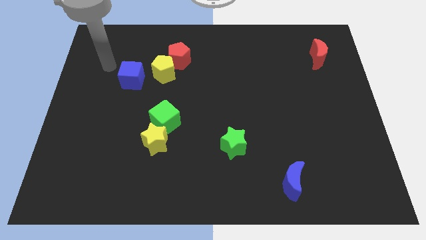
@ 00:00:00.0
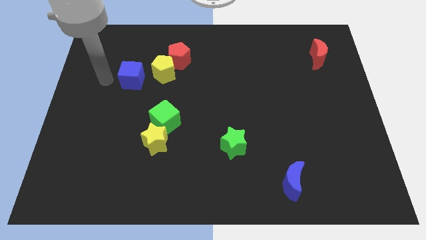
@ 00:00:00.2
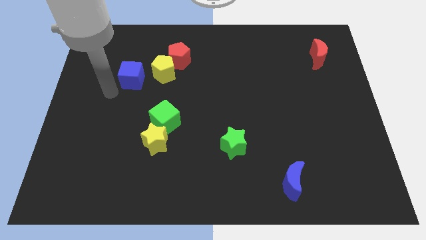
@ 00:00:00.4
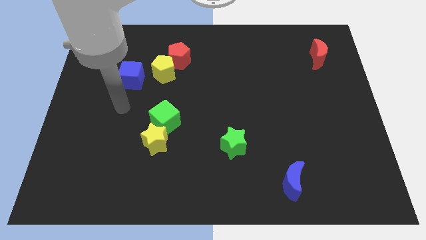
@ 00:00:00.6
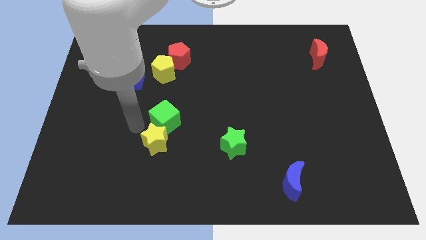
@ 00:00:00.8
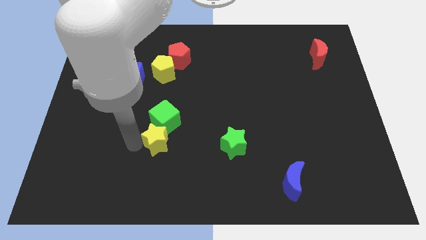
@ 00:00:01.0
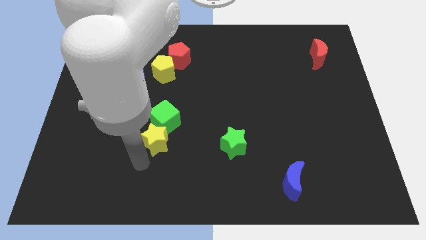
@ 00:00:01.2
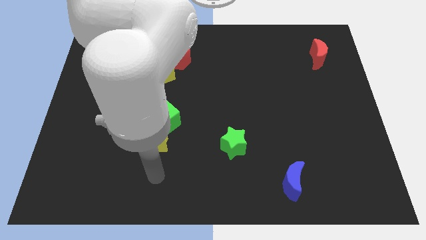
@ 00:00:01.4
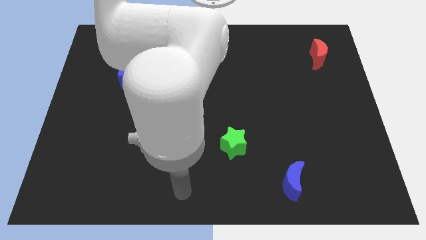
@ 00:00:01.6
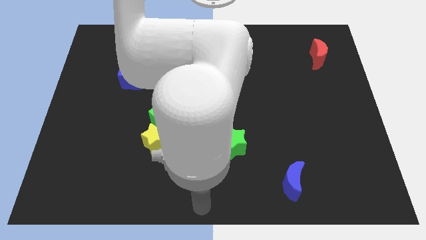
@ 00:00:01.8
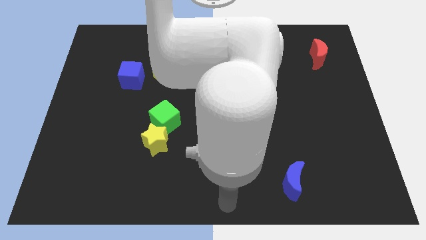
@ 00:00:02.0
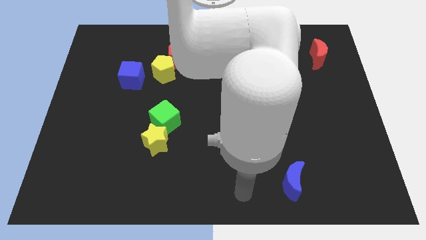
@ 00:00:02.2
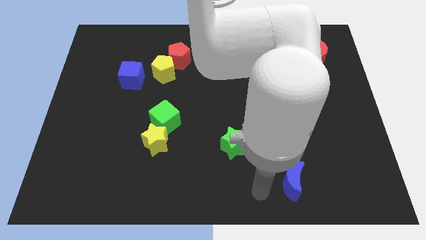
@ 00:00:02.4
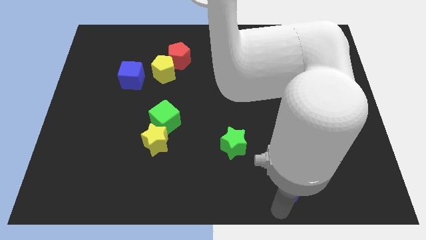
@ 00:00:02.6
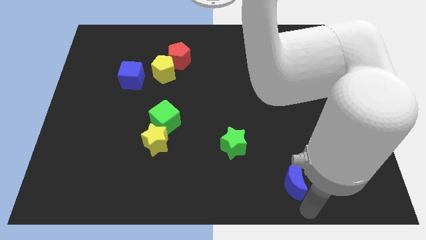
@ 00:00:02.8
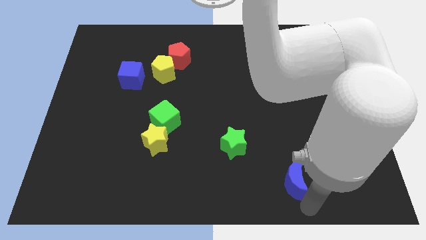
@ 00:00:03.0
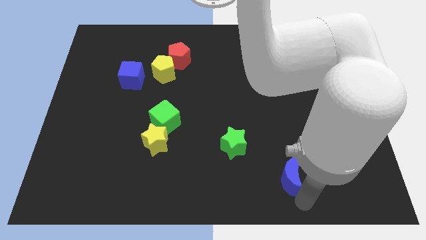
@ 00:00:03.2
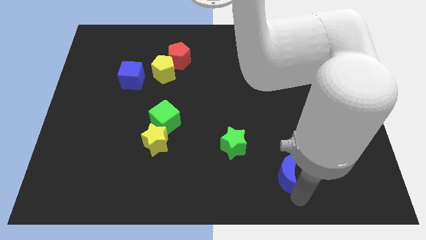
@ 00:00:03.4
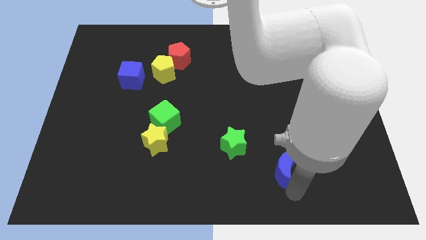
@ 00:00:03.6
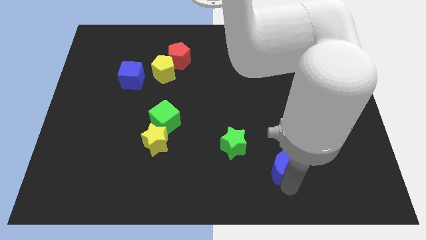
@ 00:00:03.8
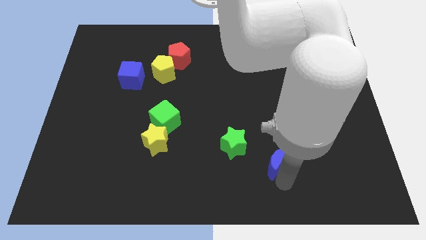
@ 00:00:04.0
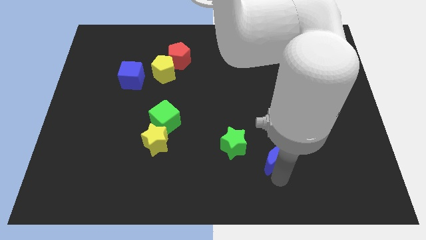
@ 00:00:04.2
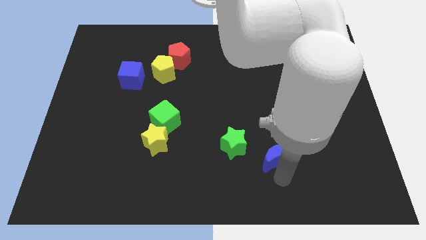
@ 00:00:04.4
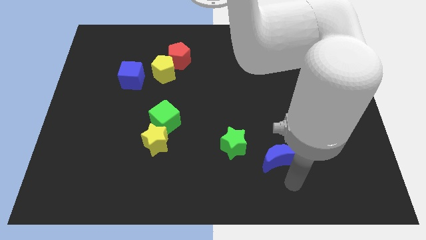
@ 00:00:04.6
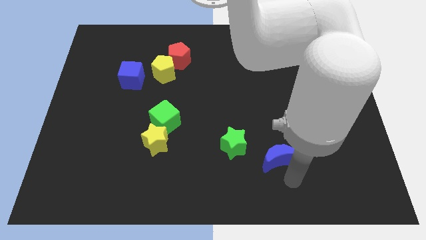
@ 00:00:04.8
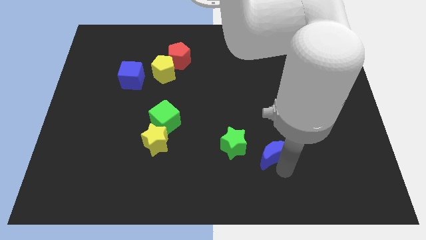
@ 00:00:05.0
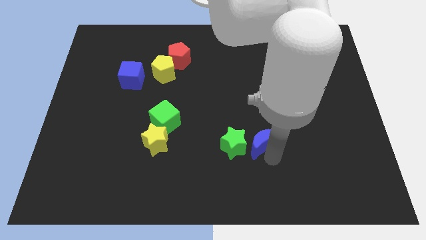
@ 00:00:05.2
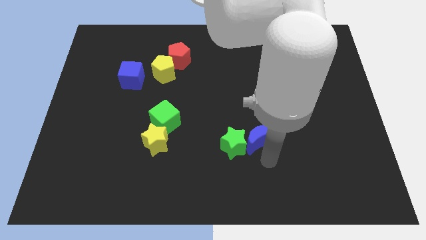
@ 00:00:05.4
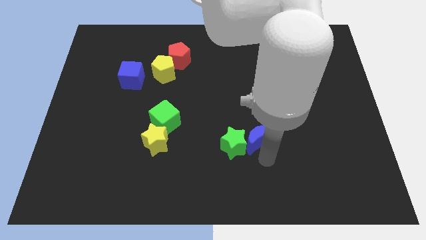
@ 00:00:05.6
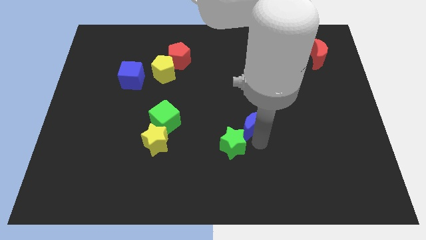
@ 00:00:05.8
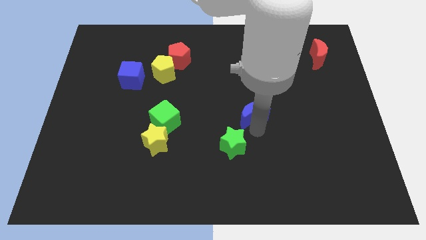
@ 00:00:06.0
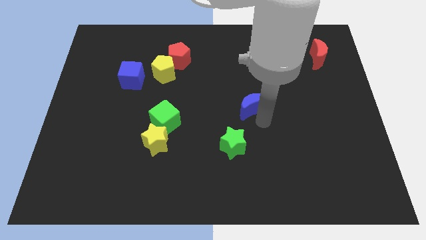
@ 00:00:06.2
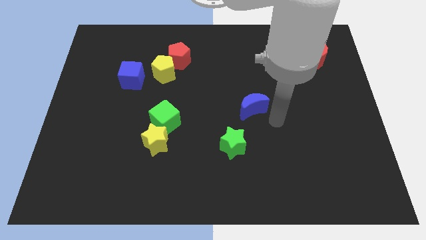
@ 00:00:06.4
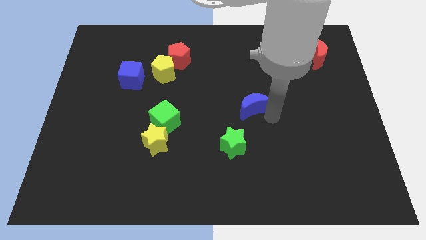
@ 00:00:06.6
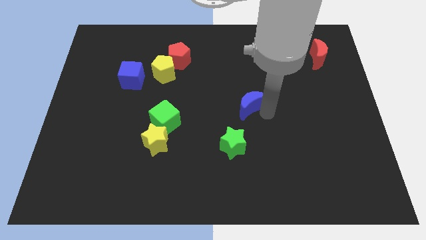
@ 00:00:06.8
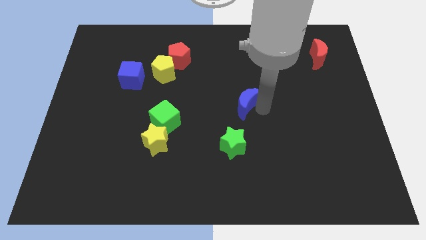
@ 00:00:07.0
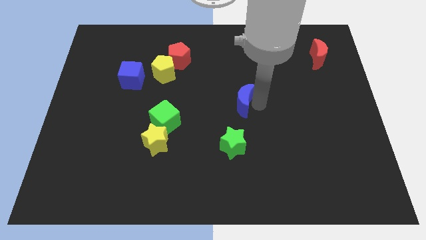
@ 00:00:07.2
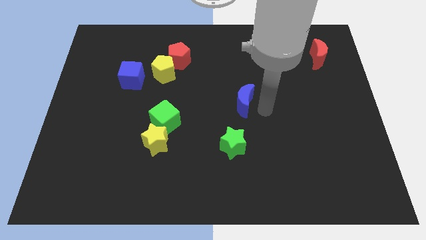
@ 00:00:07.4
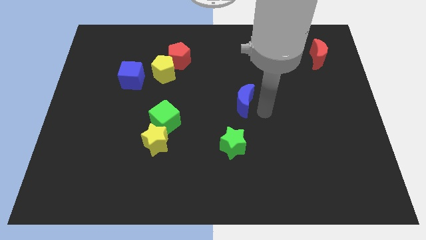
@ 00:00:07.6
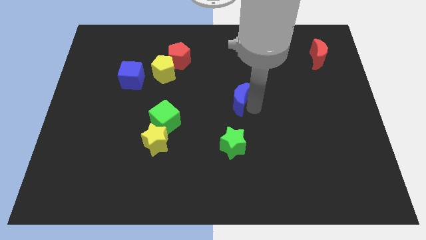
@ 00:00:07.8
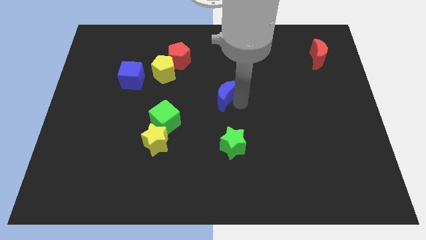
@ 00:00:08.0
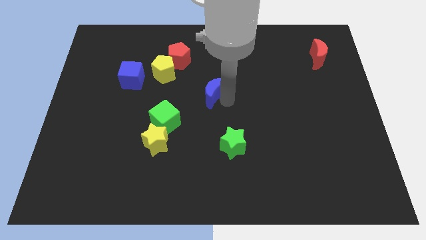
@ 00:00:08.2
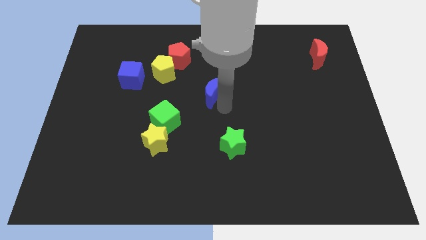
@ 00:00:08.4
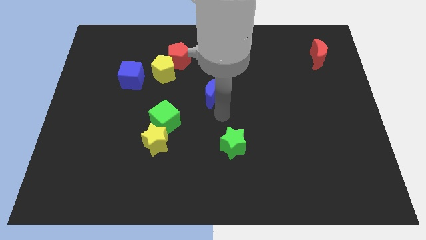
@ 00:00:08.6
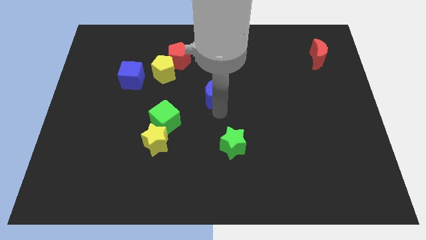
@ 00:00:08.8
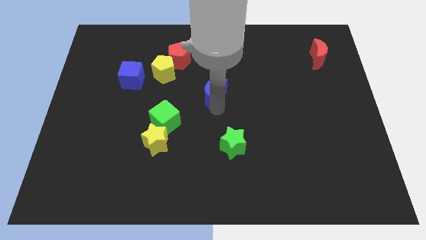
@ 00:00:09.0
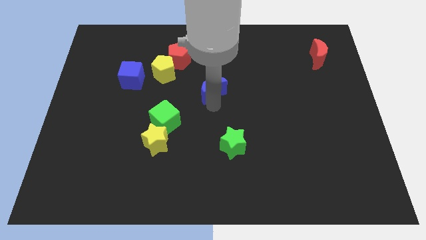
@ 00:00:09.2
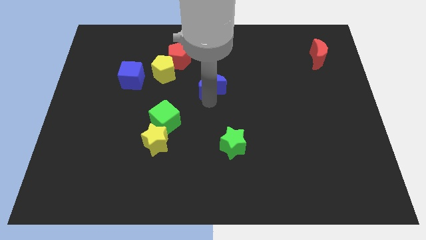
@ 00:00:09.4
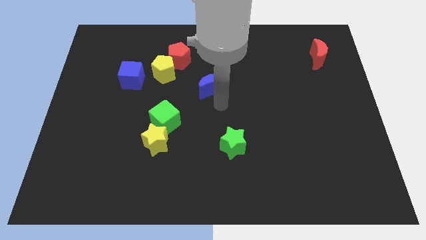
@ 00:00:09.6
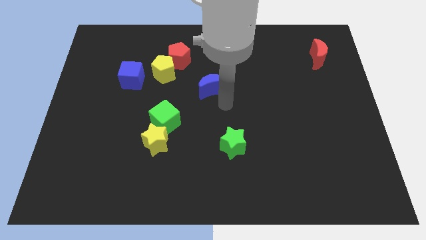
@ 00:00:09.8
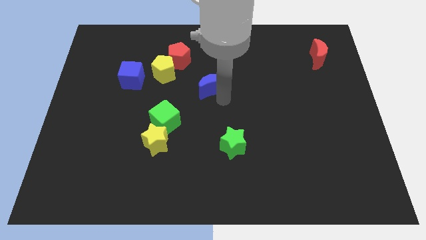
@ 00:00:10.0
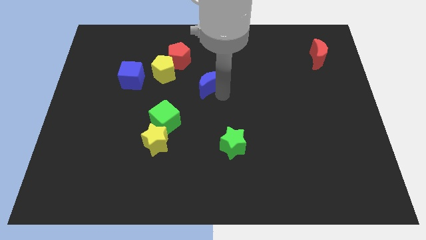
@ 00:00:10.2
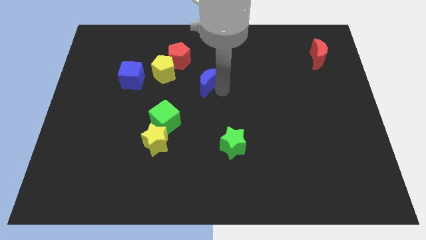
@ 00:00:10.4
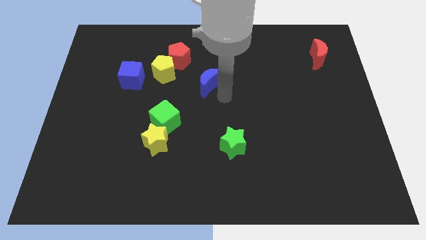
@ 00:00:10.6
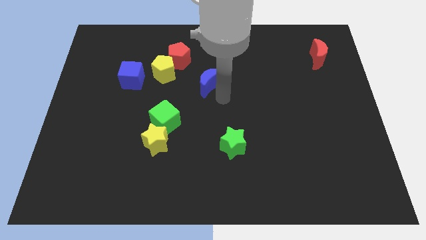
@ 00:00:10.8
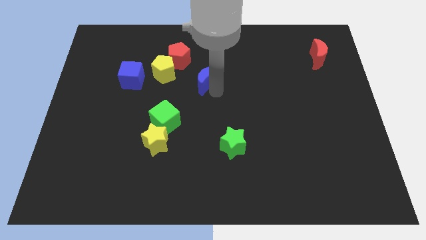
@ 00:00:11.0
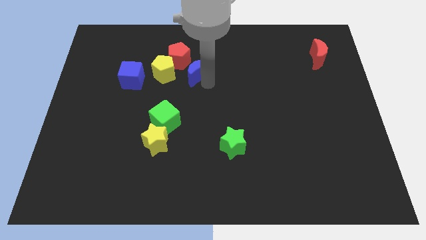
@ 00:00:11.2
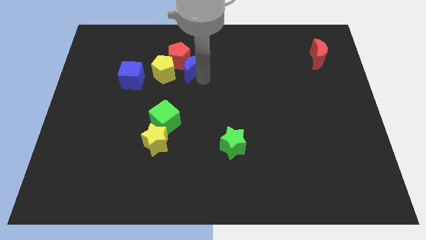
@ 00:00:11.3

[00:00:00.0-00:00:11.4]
push the blue moon close to the red pentagon
